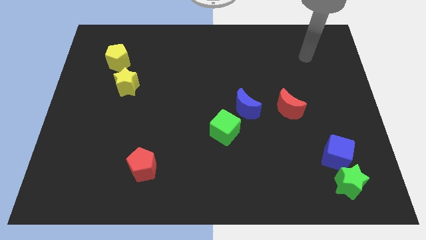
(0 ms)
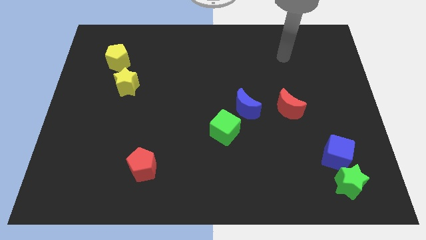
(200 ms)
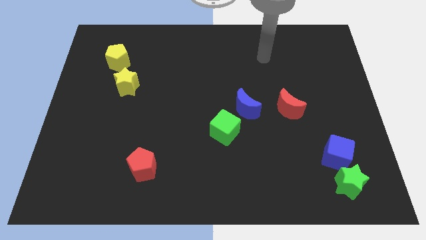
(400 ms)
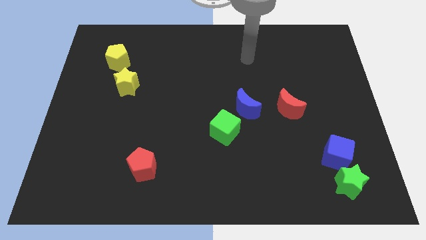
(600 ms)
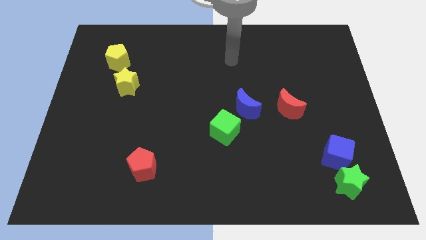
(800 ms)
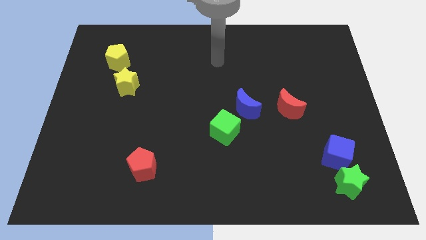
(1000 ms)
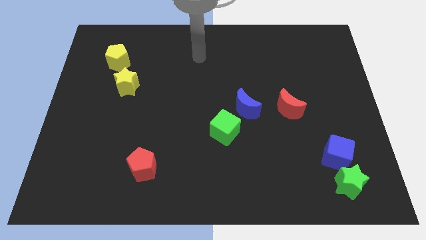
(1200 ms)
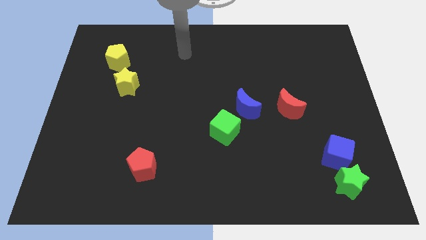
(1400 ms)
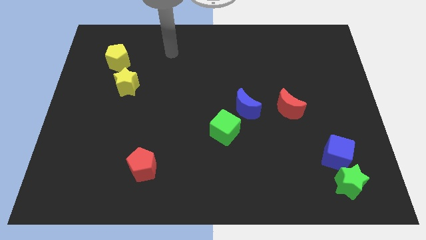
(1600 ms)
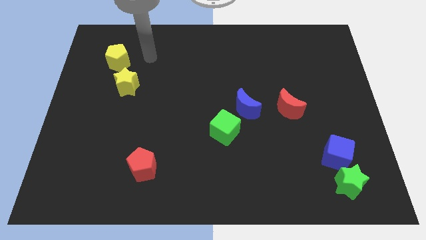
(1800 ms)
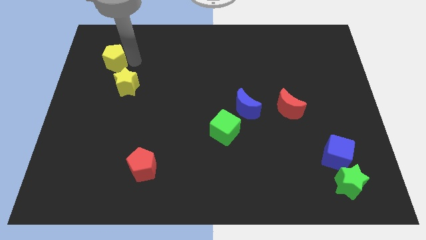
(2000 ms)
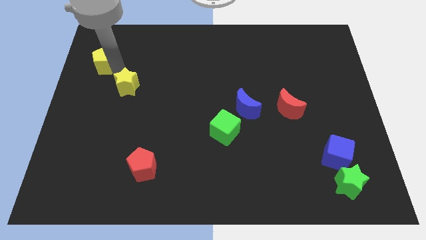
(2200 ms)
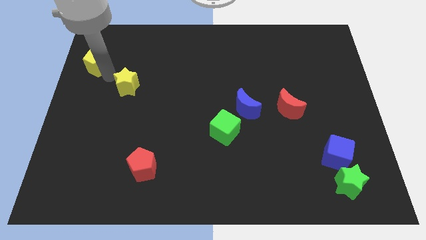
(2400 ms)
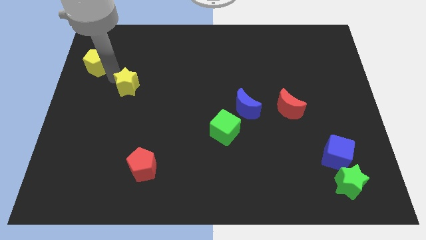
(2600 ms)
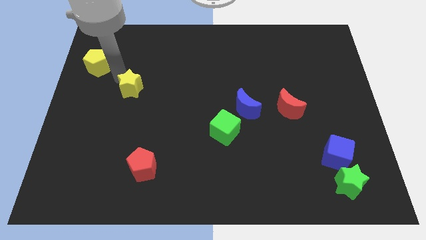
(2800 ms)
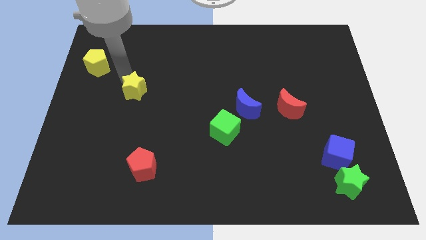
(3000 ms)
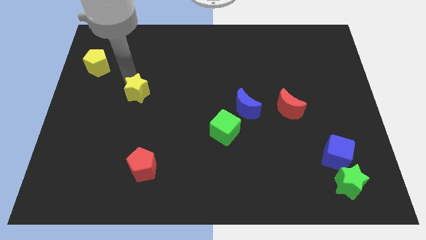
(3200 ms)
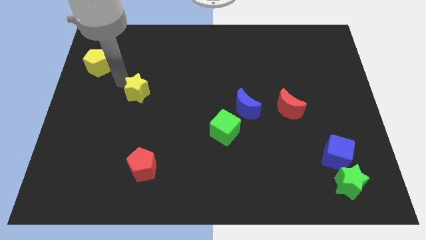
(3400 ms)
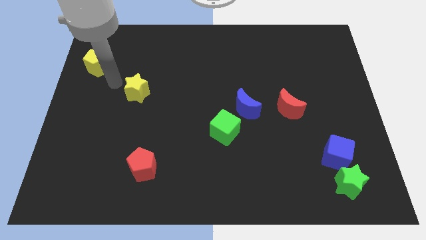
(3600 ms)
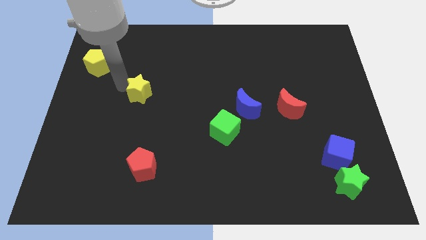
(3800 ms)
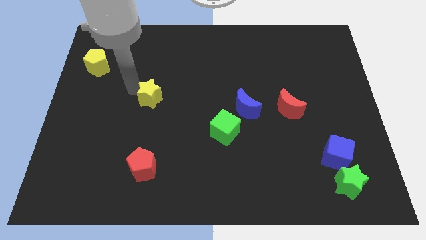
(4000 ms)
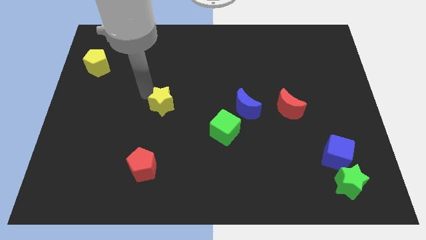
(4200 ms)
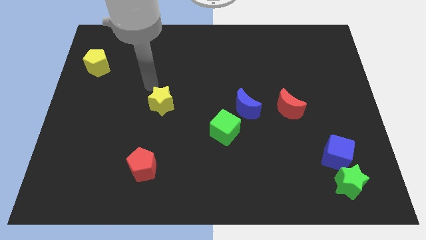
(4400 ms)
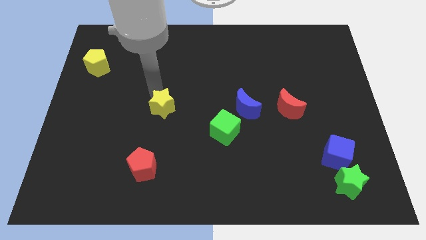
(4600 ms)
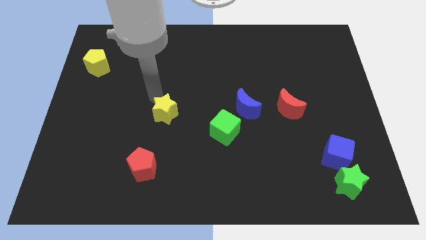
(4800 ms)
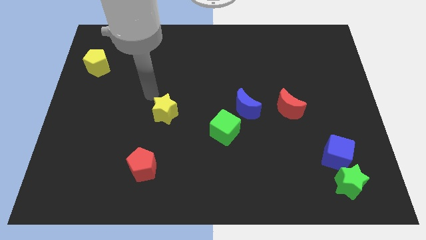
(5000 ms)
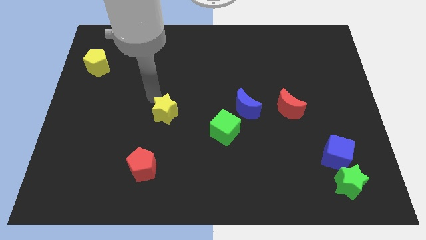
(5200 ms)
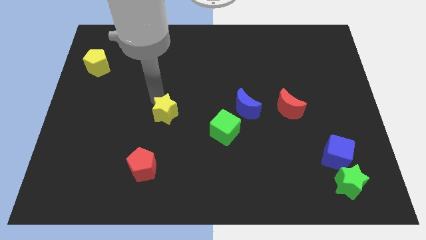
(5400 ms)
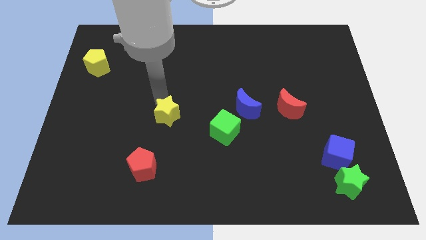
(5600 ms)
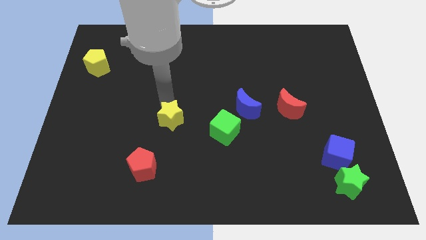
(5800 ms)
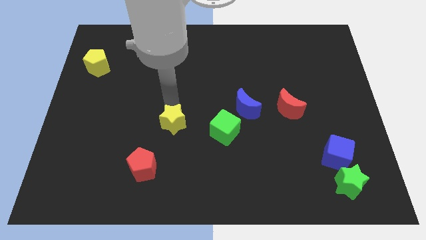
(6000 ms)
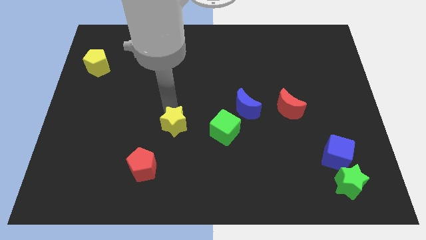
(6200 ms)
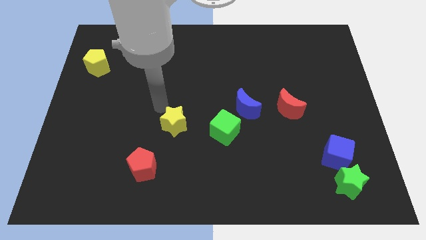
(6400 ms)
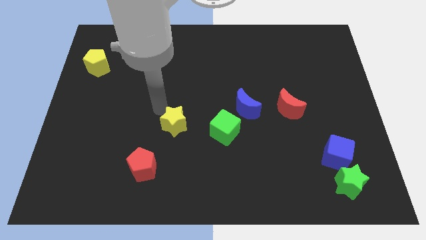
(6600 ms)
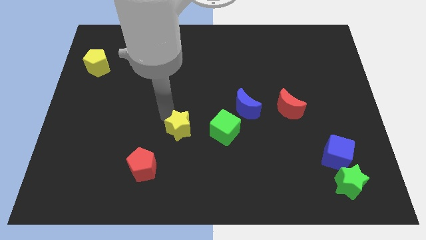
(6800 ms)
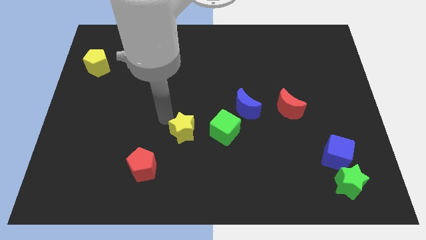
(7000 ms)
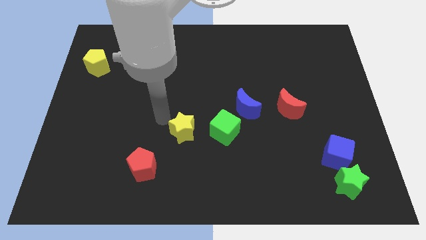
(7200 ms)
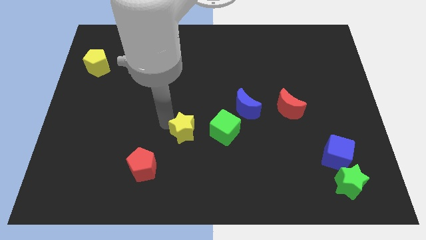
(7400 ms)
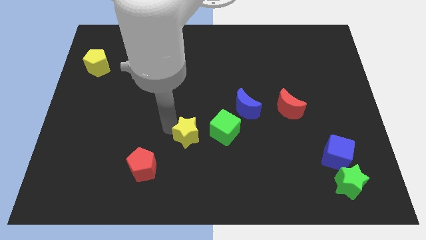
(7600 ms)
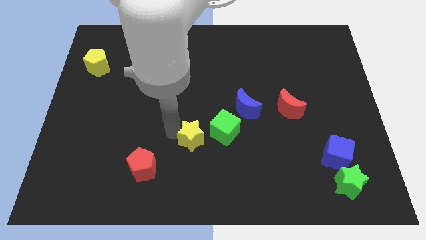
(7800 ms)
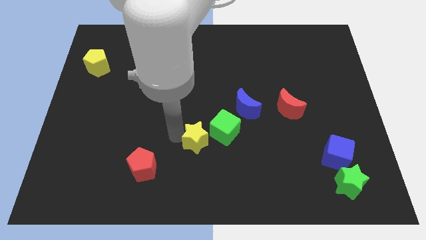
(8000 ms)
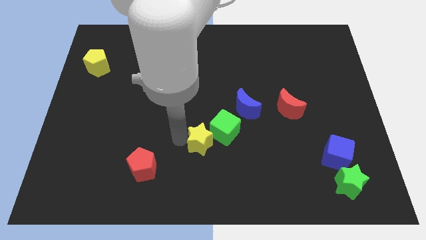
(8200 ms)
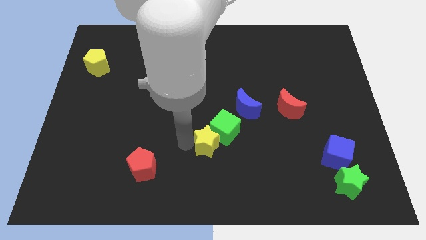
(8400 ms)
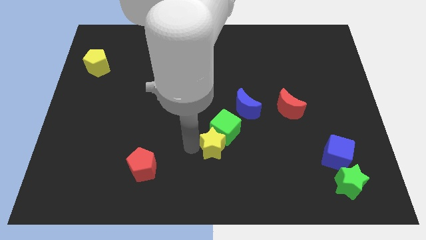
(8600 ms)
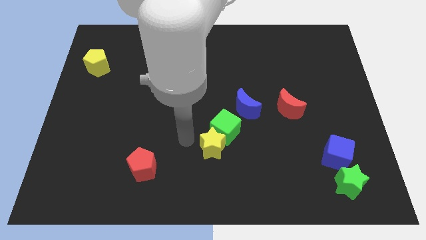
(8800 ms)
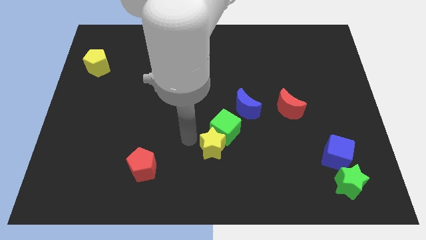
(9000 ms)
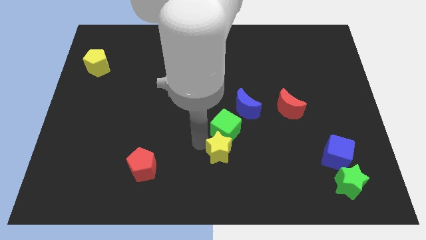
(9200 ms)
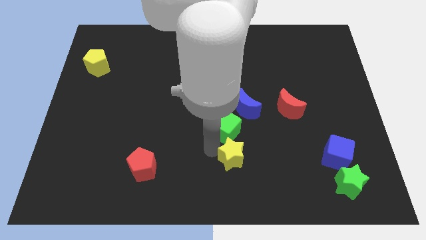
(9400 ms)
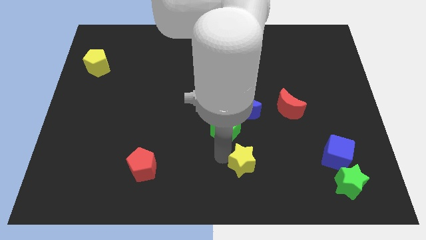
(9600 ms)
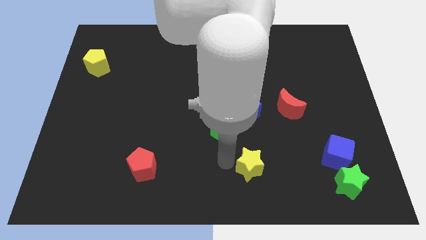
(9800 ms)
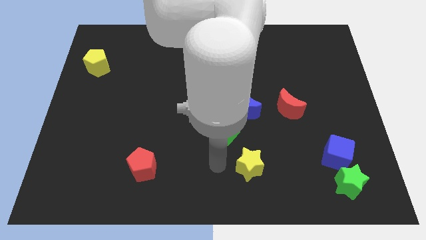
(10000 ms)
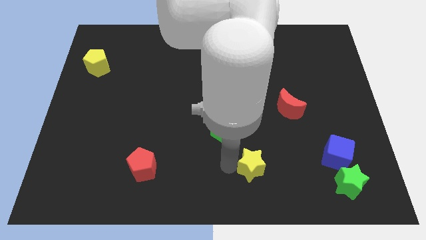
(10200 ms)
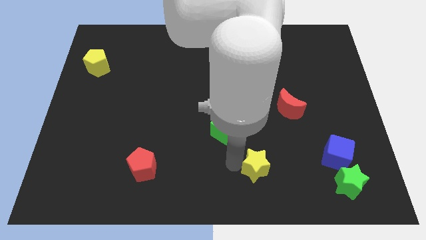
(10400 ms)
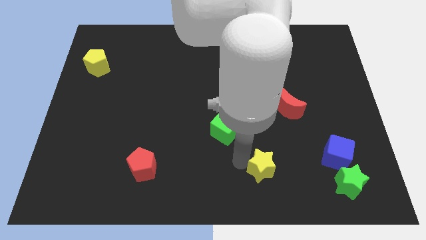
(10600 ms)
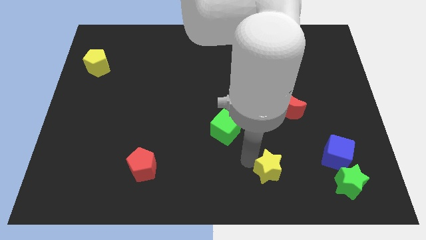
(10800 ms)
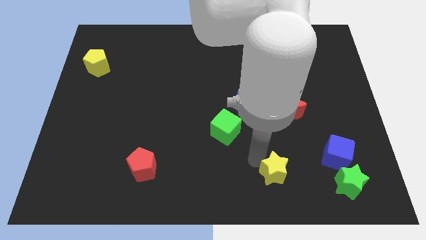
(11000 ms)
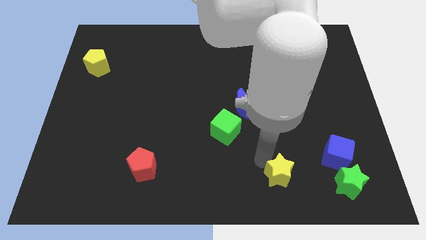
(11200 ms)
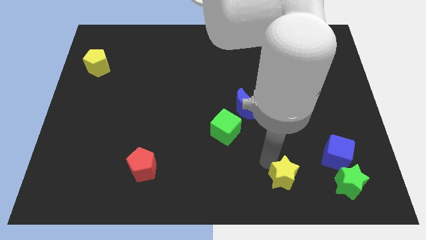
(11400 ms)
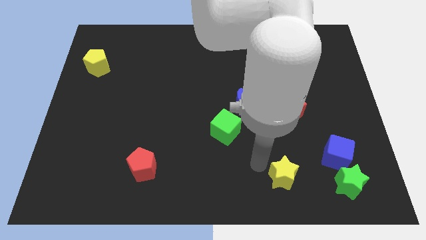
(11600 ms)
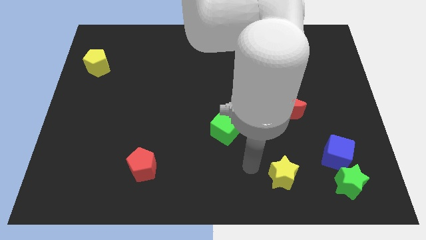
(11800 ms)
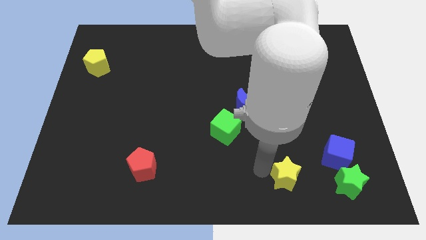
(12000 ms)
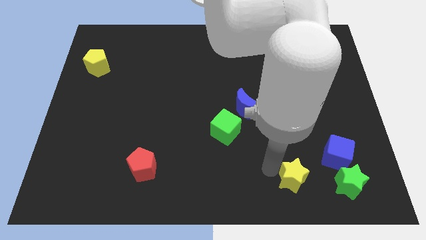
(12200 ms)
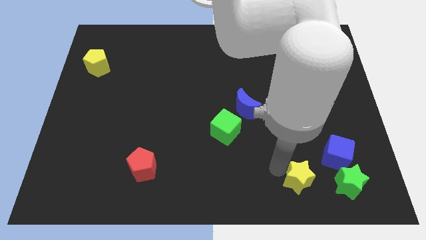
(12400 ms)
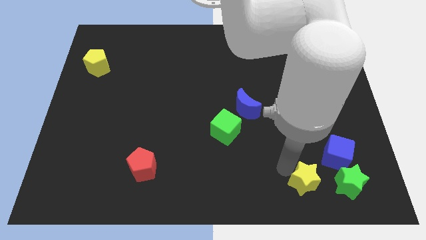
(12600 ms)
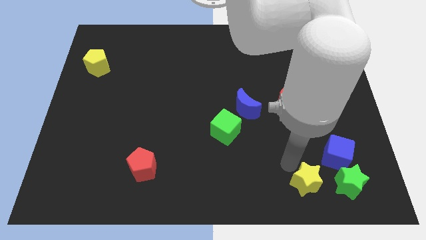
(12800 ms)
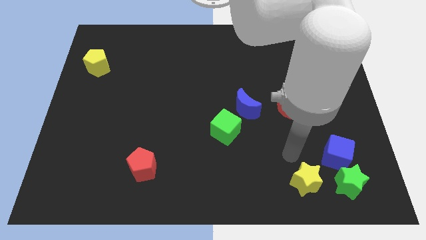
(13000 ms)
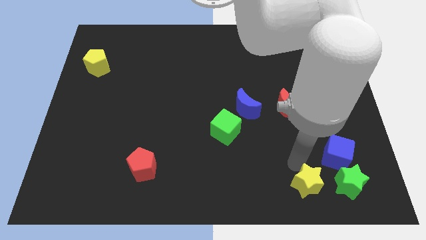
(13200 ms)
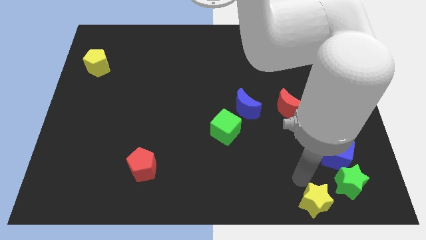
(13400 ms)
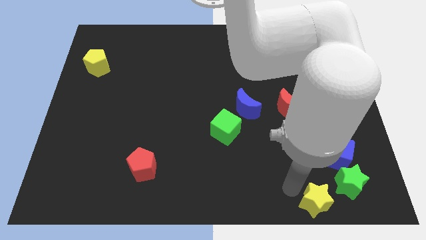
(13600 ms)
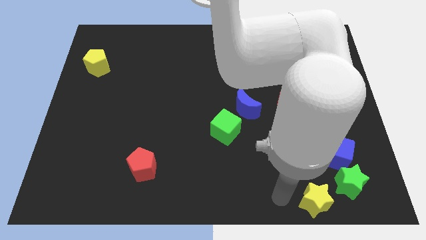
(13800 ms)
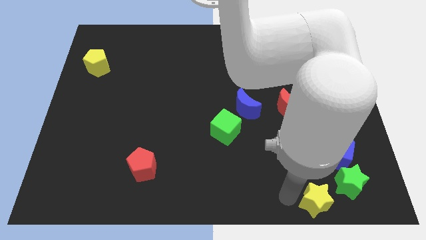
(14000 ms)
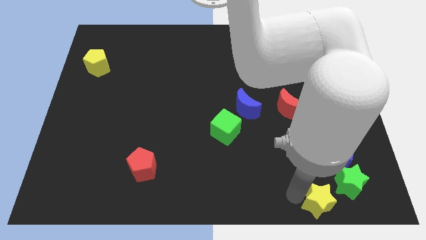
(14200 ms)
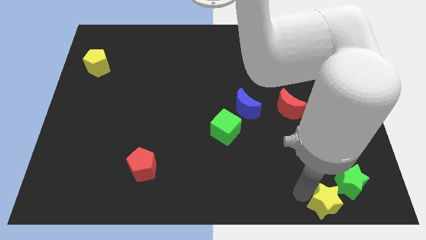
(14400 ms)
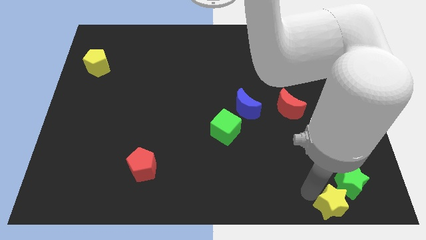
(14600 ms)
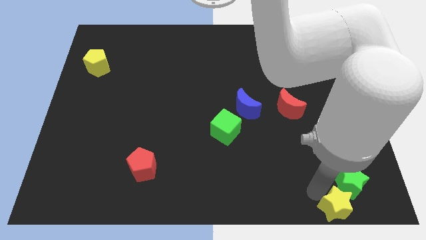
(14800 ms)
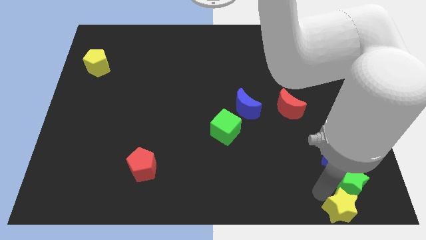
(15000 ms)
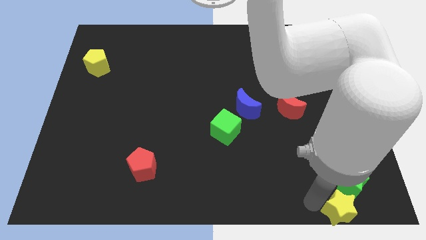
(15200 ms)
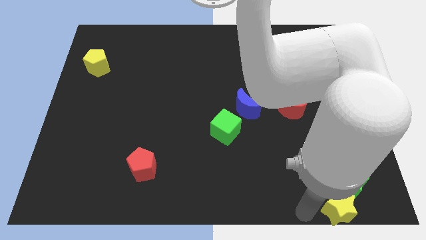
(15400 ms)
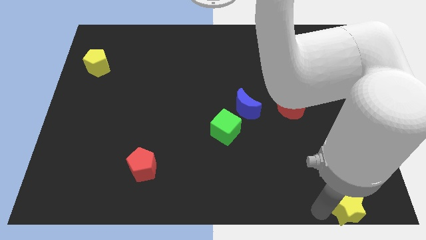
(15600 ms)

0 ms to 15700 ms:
push the yellow star to the lower right corner
